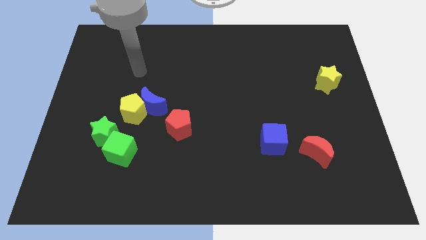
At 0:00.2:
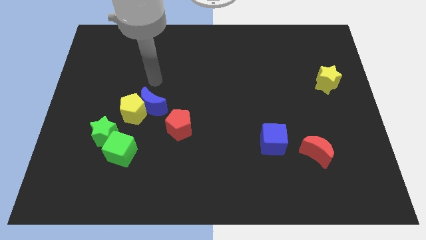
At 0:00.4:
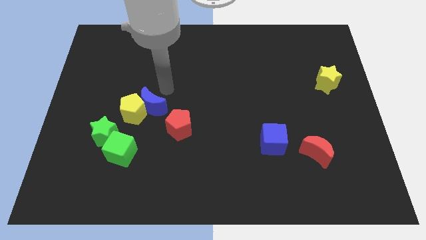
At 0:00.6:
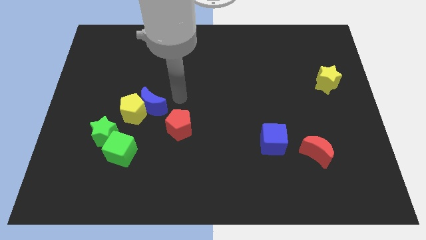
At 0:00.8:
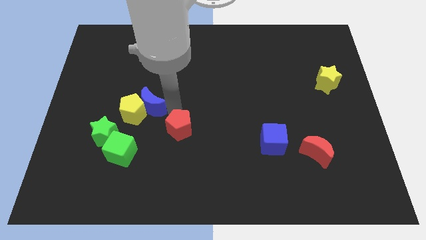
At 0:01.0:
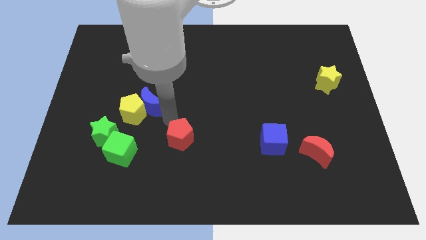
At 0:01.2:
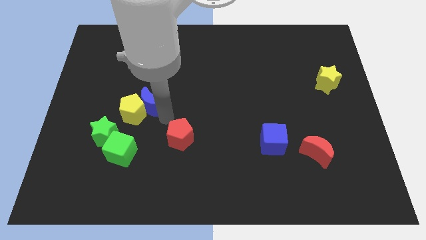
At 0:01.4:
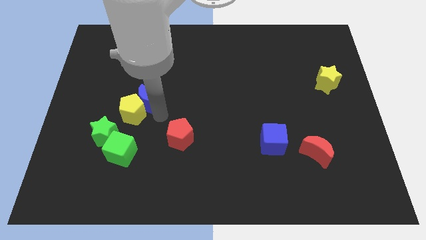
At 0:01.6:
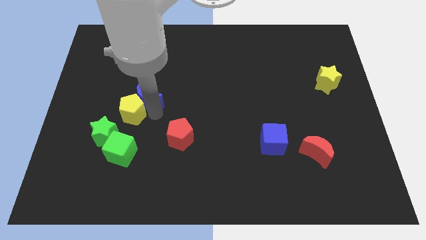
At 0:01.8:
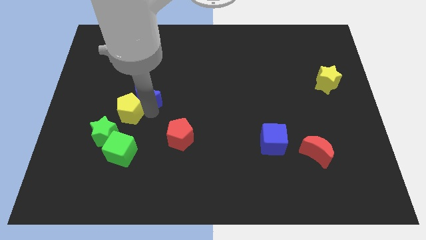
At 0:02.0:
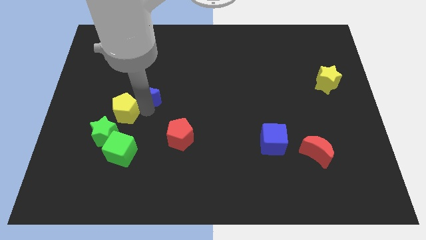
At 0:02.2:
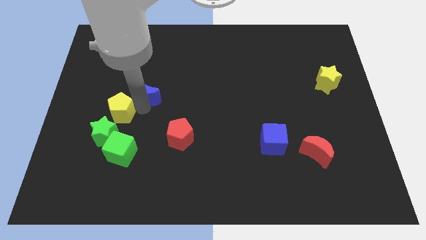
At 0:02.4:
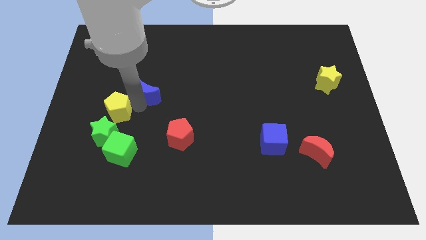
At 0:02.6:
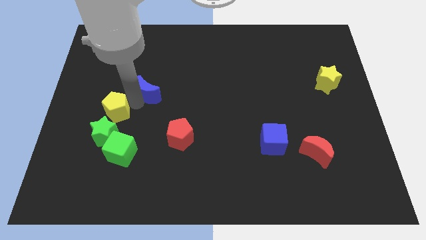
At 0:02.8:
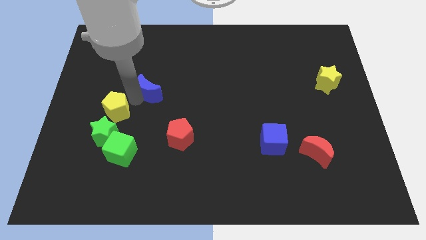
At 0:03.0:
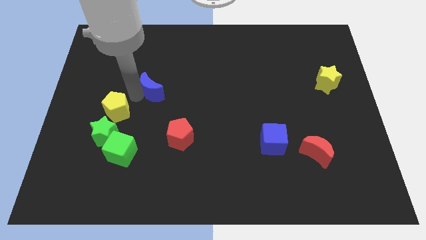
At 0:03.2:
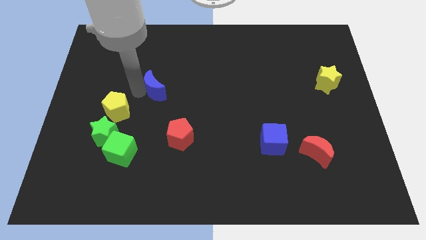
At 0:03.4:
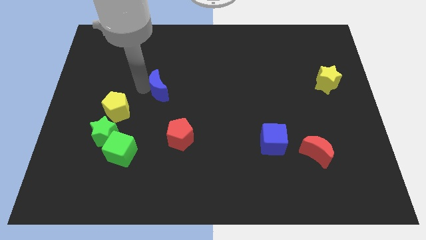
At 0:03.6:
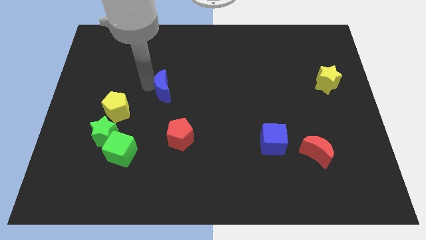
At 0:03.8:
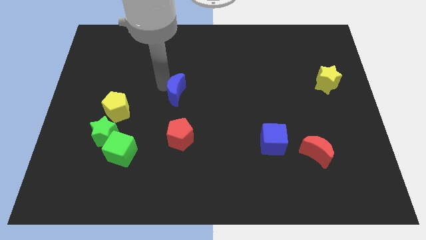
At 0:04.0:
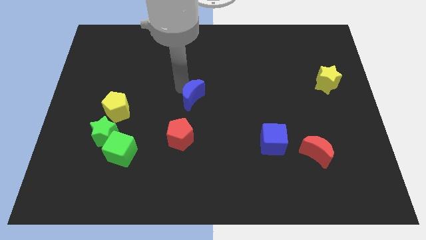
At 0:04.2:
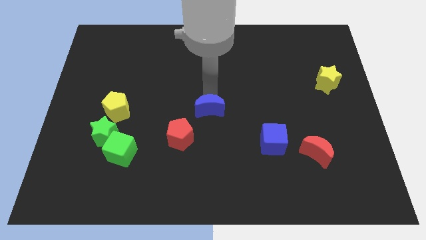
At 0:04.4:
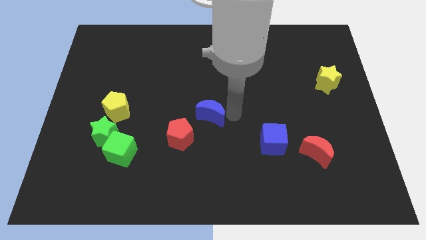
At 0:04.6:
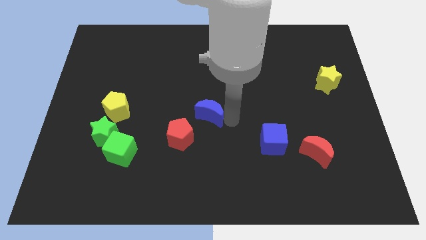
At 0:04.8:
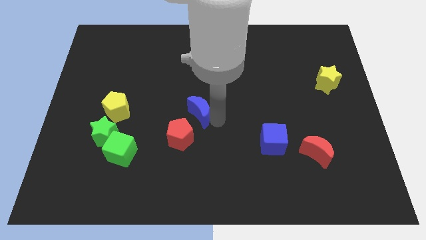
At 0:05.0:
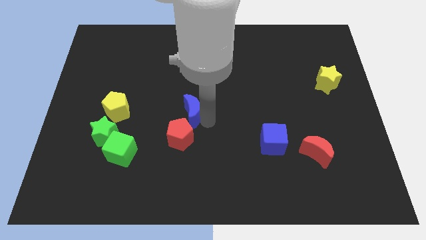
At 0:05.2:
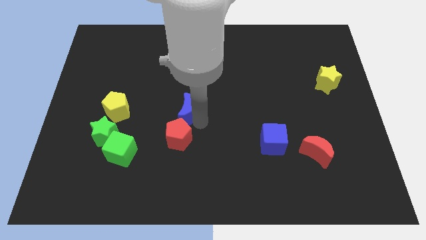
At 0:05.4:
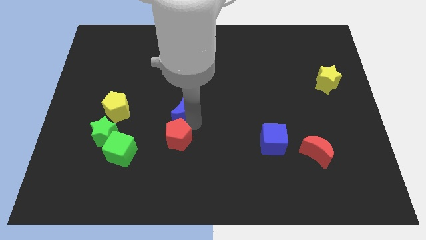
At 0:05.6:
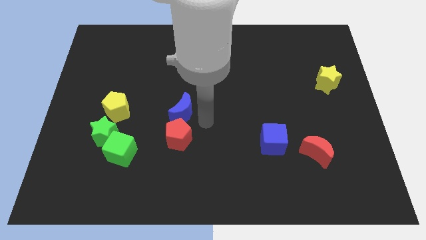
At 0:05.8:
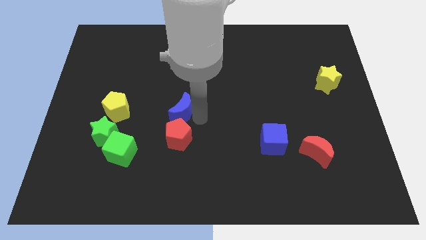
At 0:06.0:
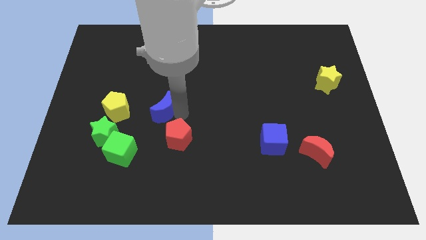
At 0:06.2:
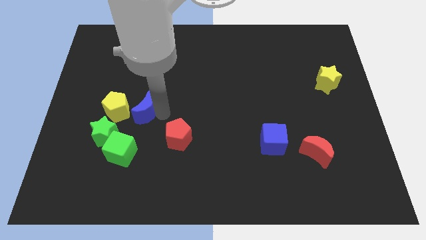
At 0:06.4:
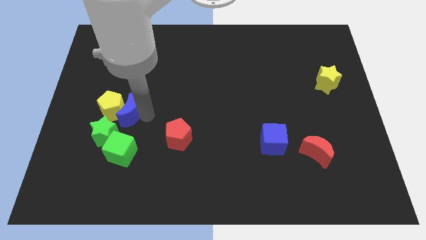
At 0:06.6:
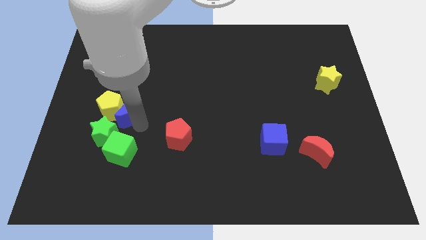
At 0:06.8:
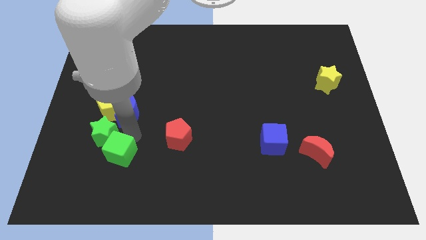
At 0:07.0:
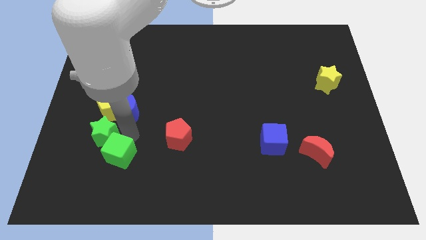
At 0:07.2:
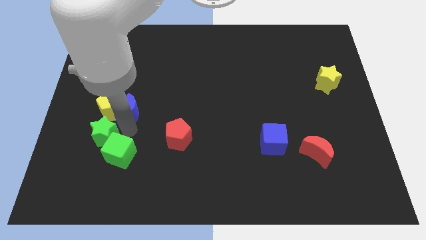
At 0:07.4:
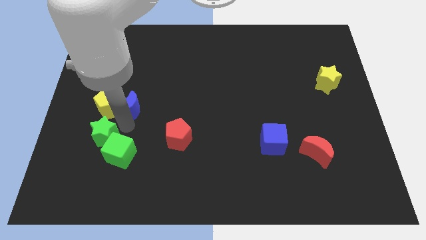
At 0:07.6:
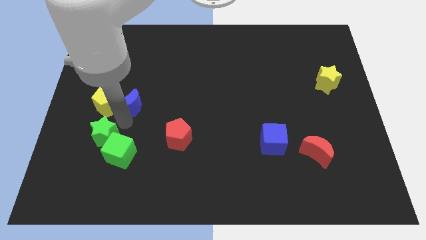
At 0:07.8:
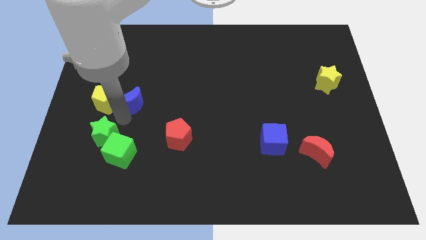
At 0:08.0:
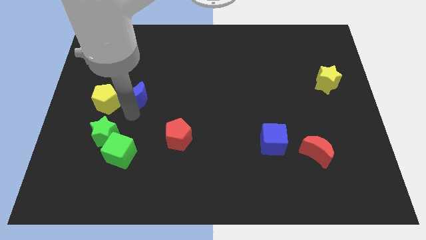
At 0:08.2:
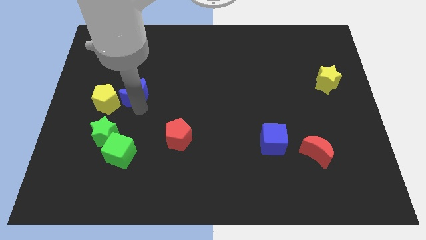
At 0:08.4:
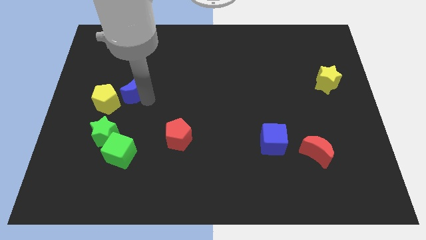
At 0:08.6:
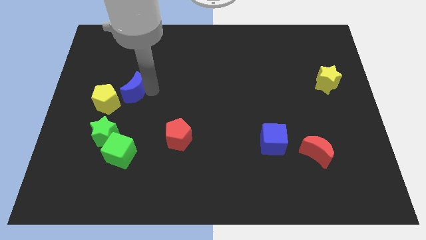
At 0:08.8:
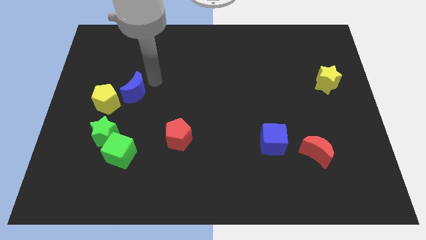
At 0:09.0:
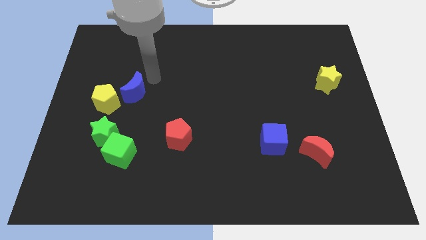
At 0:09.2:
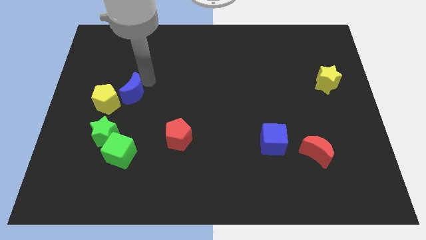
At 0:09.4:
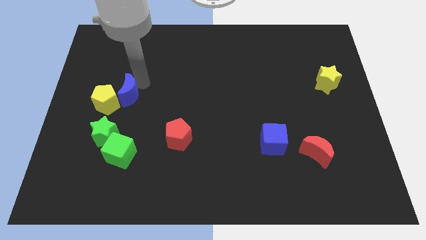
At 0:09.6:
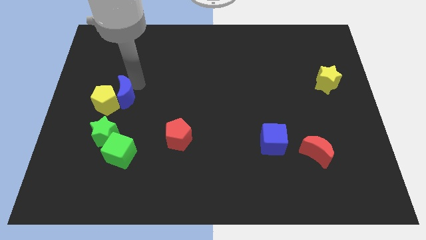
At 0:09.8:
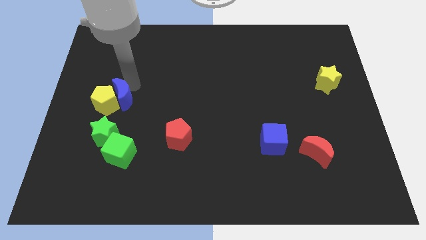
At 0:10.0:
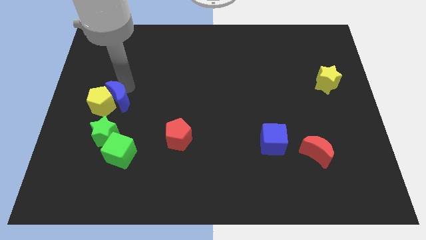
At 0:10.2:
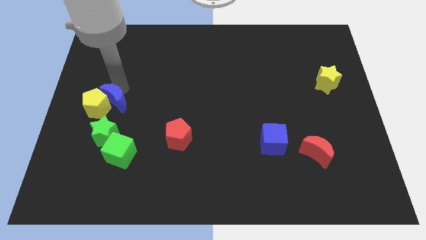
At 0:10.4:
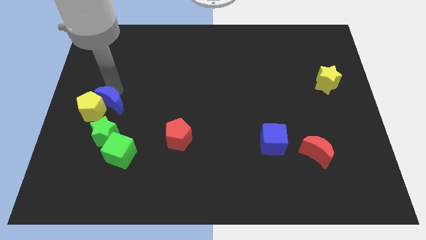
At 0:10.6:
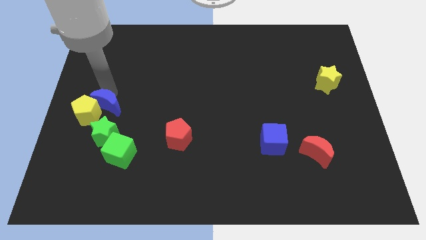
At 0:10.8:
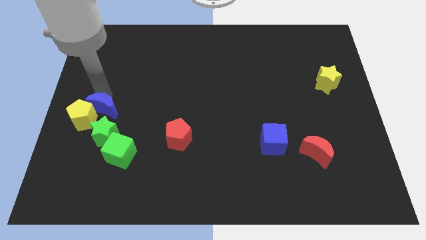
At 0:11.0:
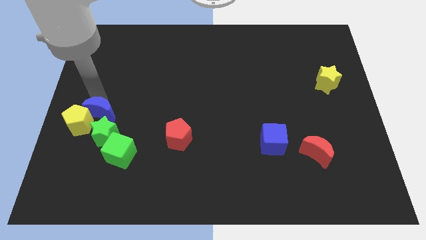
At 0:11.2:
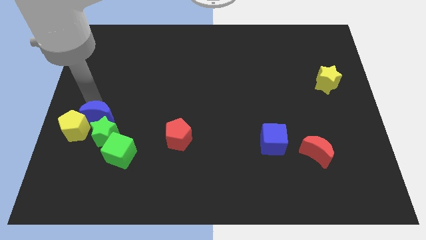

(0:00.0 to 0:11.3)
slide the blue moon next to the green star

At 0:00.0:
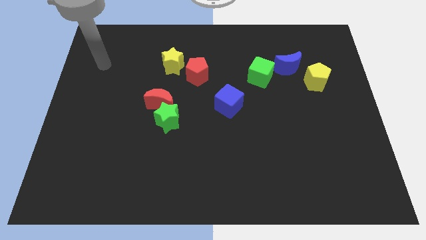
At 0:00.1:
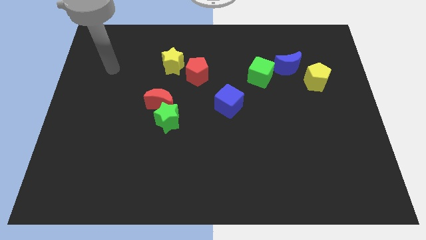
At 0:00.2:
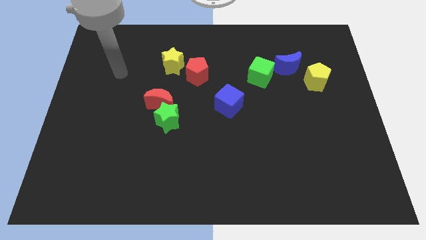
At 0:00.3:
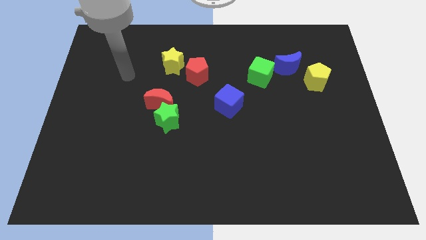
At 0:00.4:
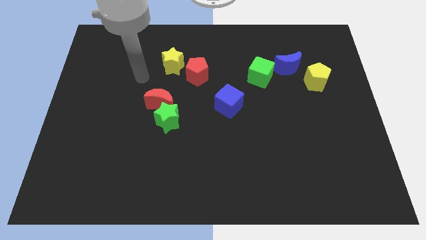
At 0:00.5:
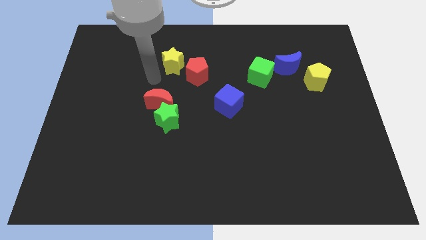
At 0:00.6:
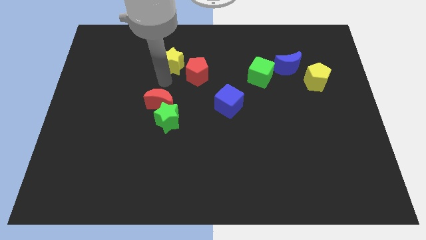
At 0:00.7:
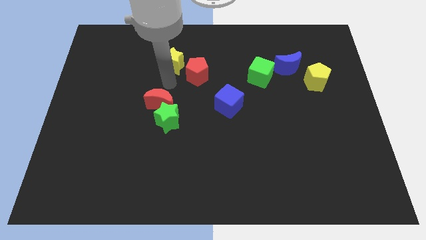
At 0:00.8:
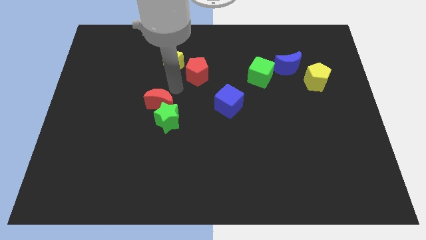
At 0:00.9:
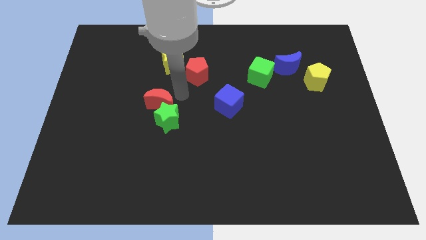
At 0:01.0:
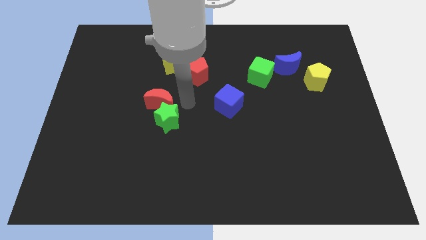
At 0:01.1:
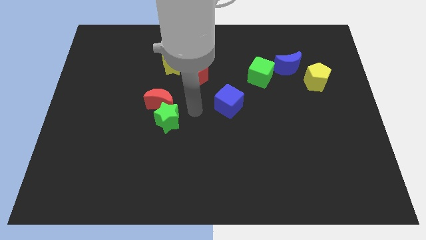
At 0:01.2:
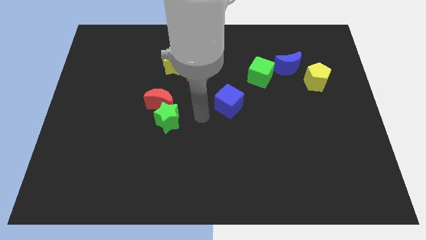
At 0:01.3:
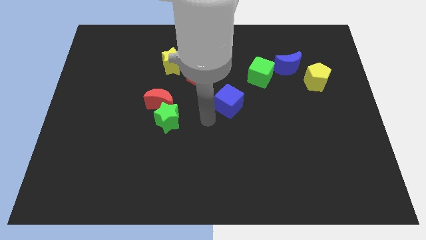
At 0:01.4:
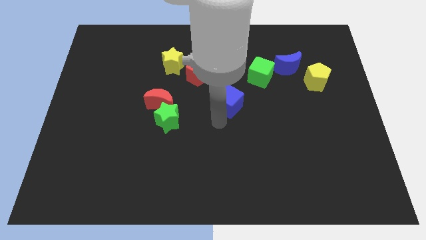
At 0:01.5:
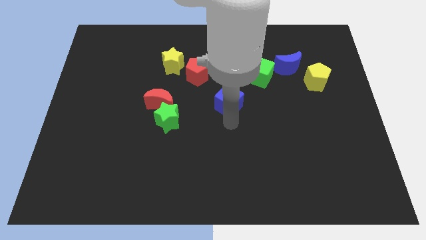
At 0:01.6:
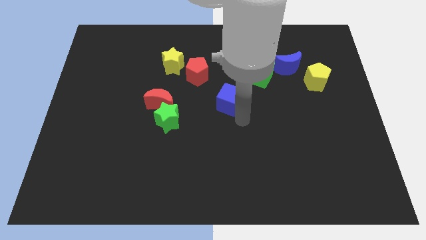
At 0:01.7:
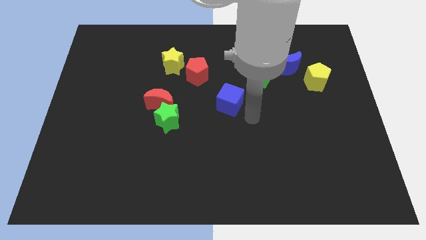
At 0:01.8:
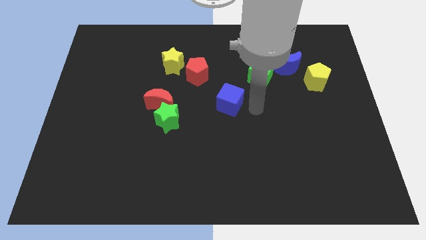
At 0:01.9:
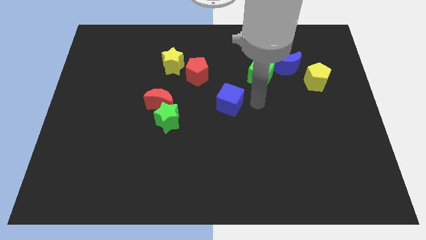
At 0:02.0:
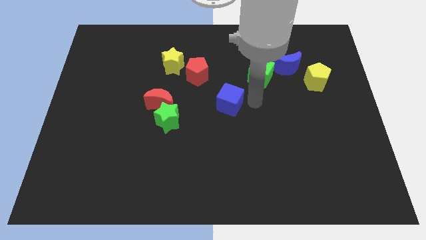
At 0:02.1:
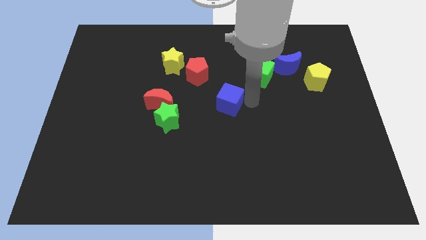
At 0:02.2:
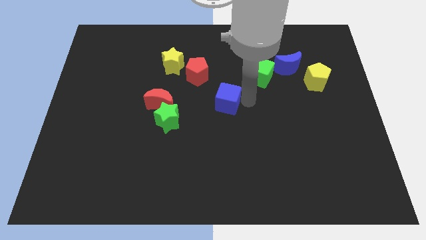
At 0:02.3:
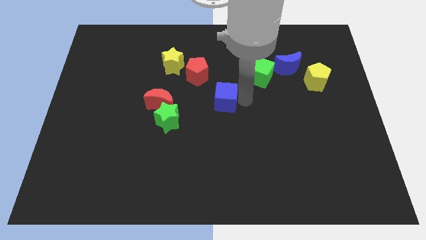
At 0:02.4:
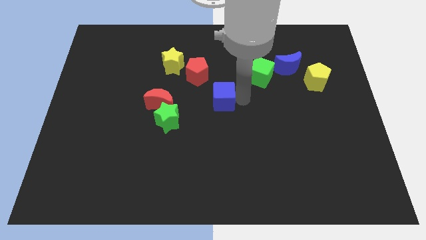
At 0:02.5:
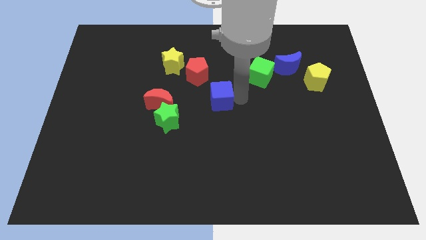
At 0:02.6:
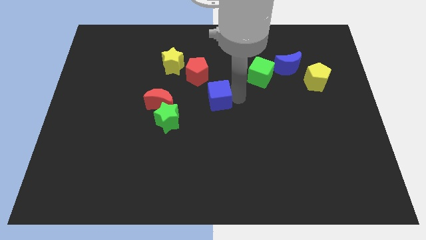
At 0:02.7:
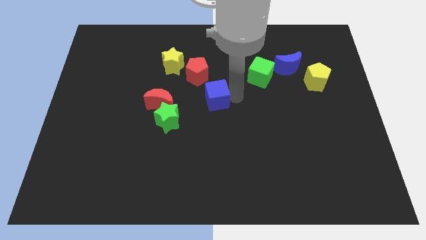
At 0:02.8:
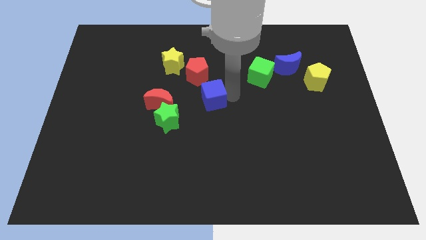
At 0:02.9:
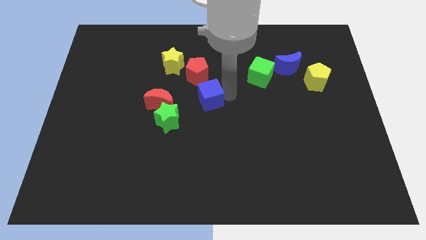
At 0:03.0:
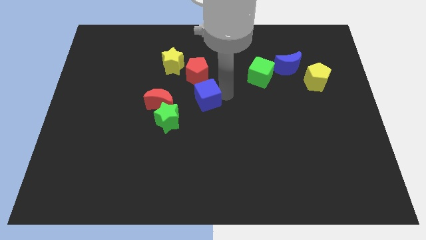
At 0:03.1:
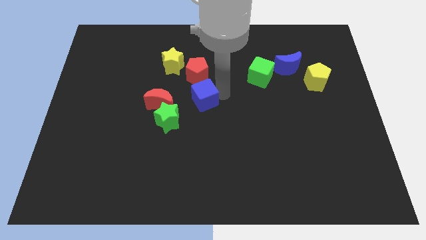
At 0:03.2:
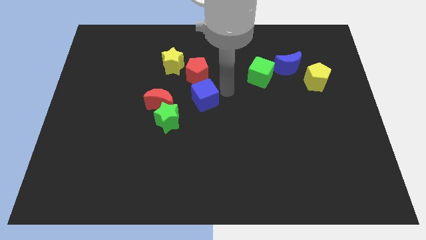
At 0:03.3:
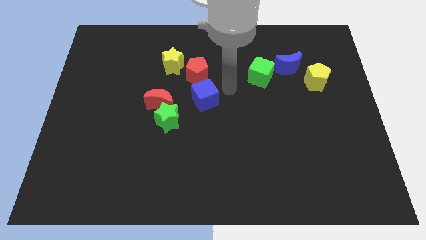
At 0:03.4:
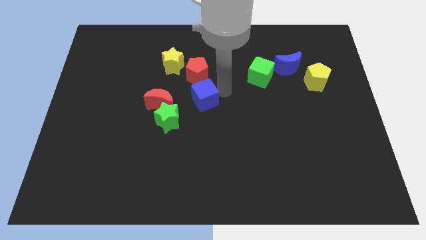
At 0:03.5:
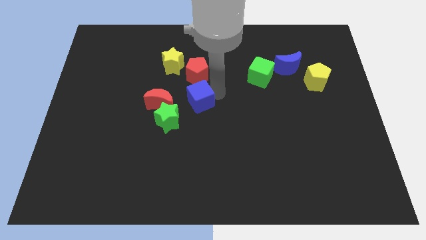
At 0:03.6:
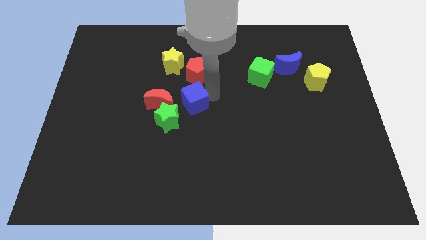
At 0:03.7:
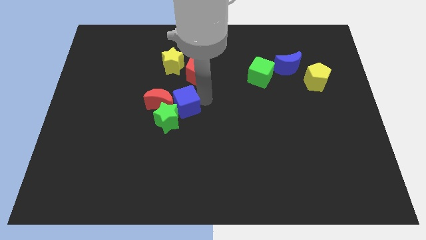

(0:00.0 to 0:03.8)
slide the blue cube to the red moon
